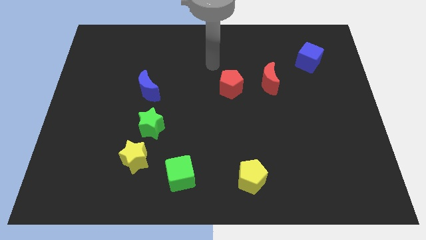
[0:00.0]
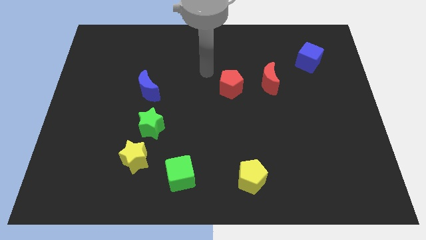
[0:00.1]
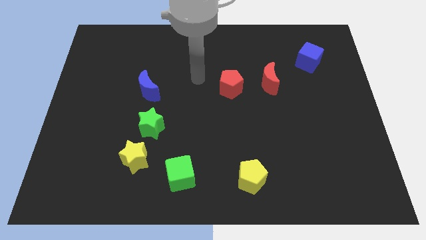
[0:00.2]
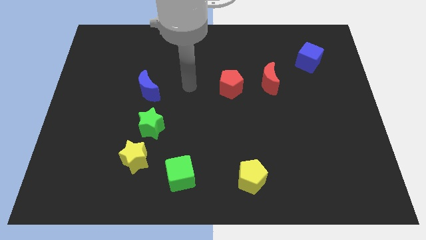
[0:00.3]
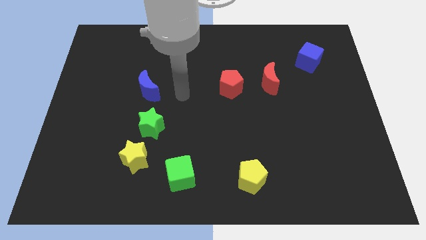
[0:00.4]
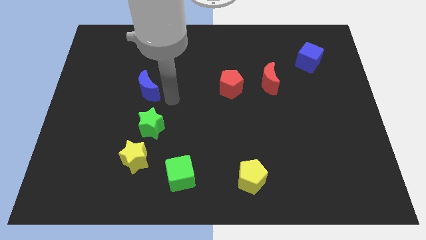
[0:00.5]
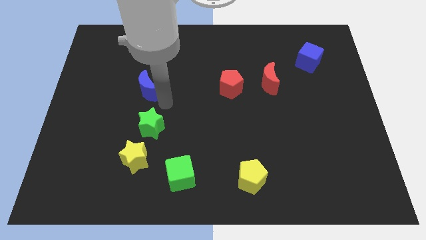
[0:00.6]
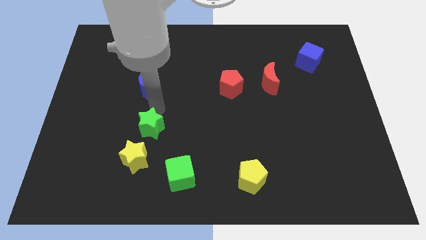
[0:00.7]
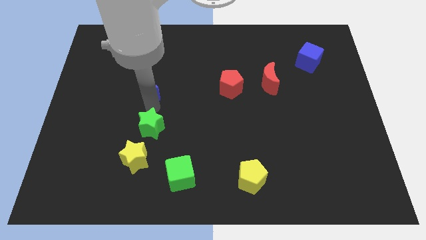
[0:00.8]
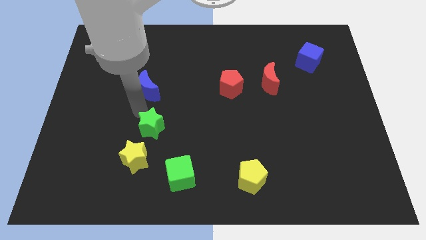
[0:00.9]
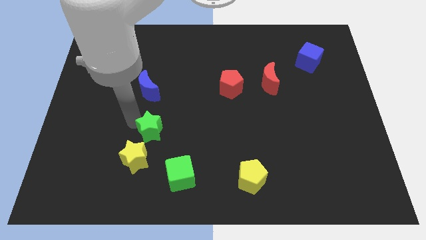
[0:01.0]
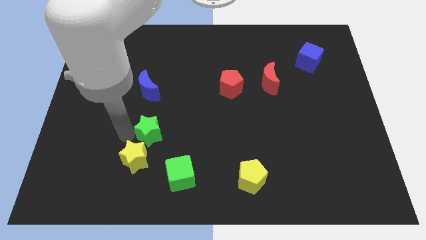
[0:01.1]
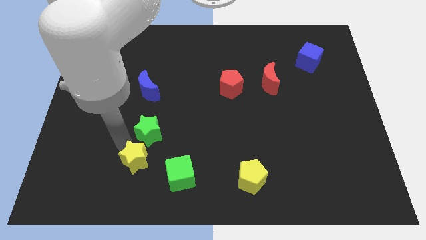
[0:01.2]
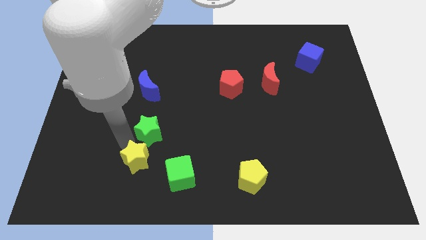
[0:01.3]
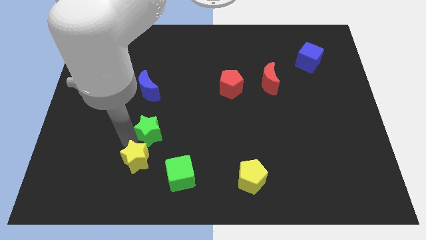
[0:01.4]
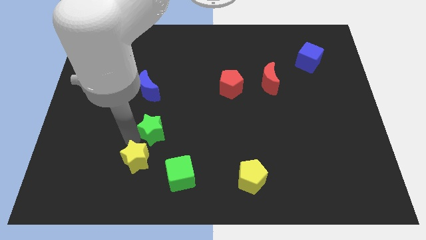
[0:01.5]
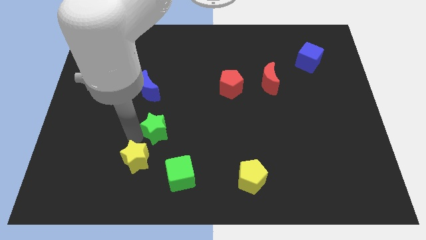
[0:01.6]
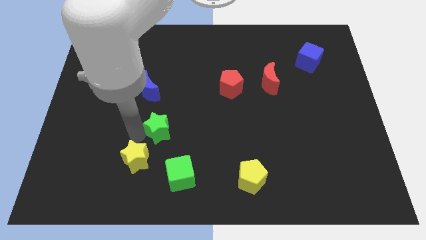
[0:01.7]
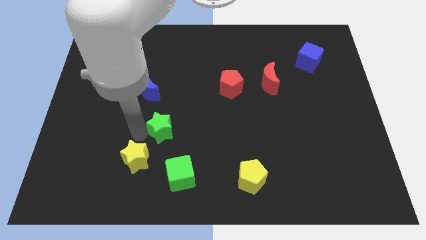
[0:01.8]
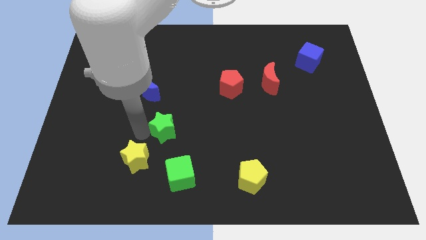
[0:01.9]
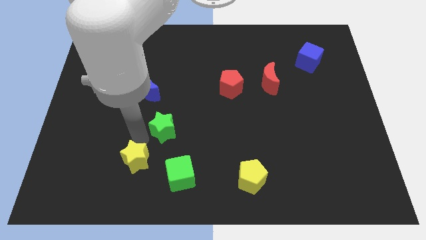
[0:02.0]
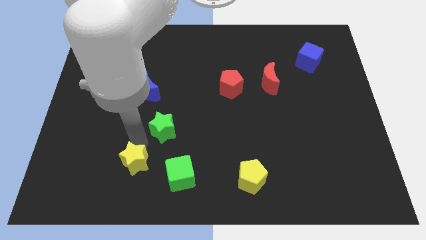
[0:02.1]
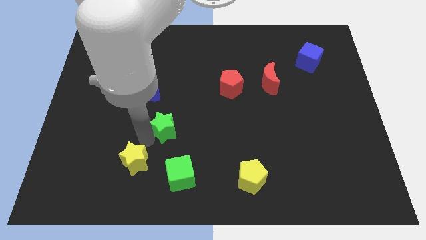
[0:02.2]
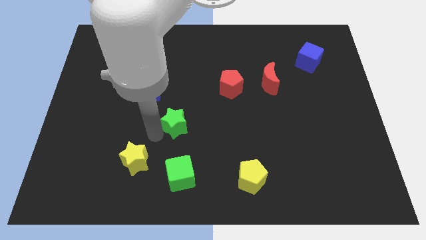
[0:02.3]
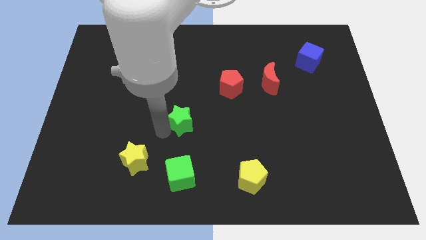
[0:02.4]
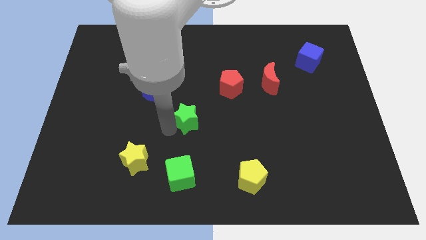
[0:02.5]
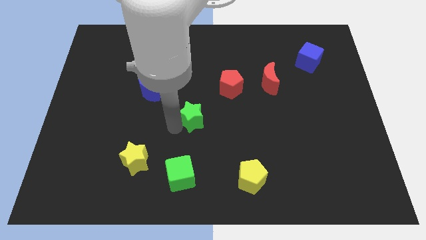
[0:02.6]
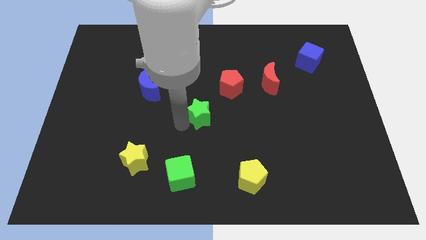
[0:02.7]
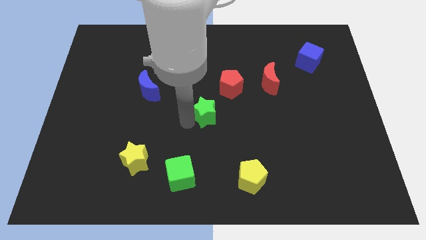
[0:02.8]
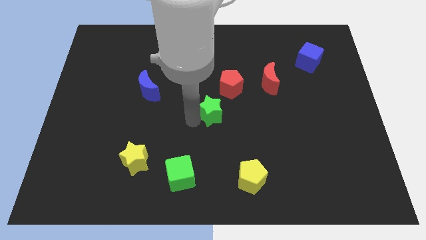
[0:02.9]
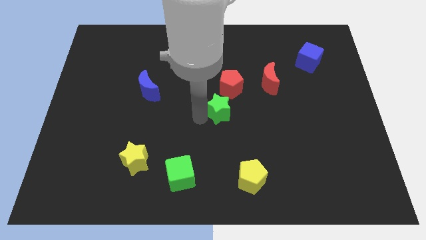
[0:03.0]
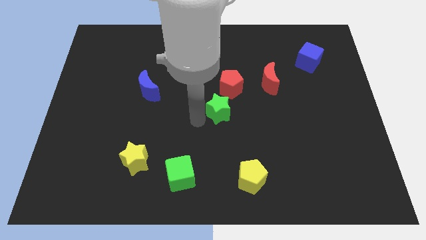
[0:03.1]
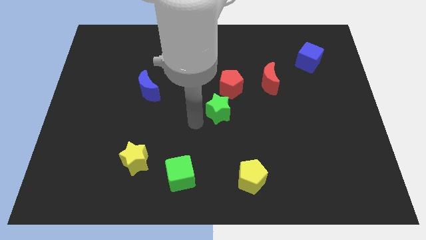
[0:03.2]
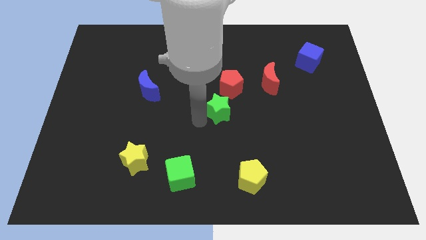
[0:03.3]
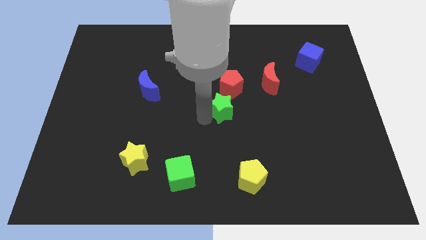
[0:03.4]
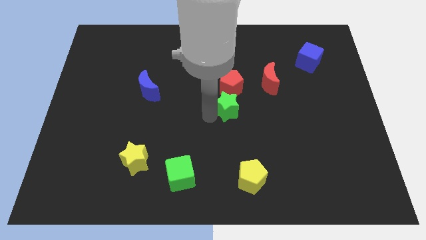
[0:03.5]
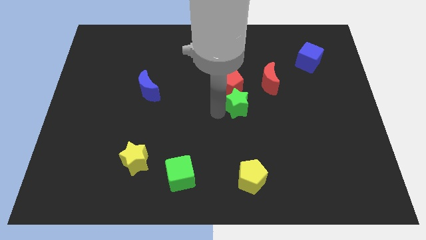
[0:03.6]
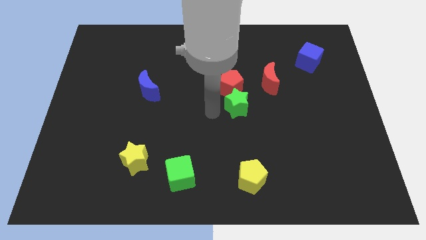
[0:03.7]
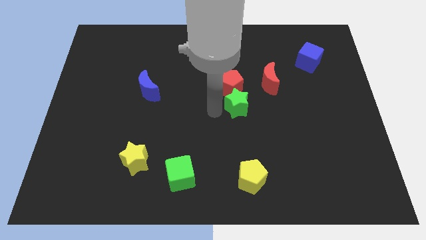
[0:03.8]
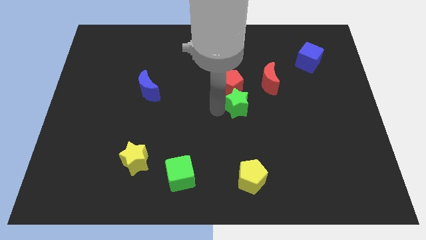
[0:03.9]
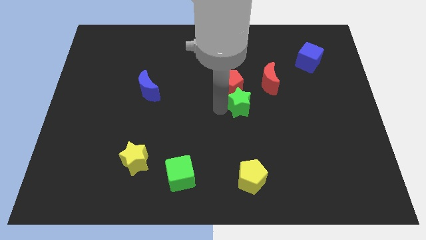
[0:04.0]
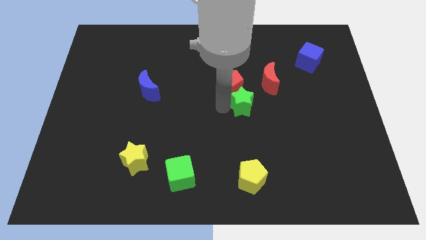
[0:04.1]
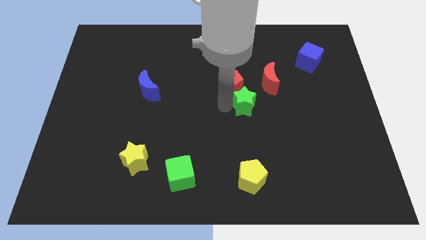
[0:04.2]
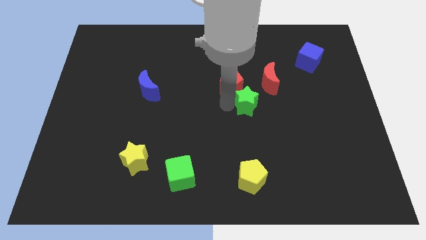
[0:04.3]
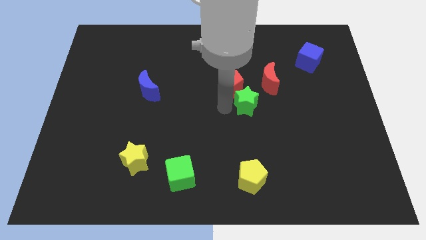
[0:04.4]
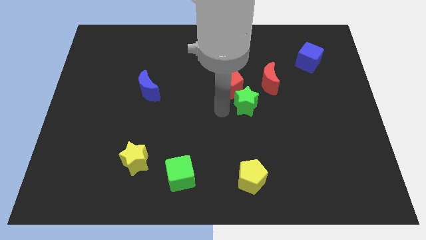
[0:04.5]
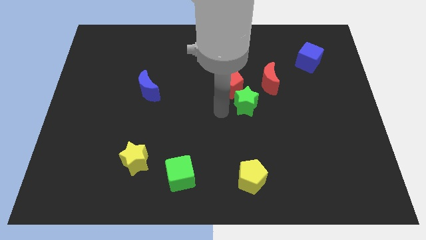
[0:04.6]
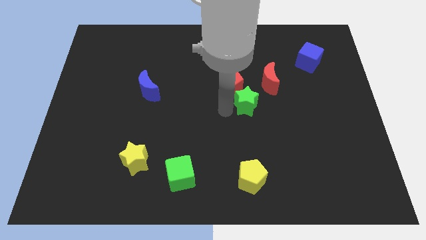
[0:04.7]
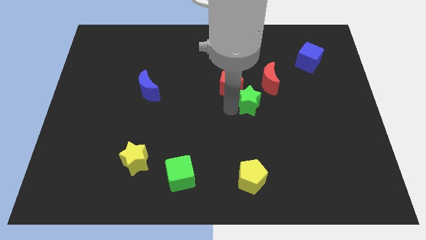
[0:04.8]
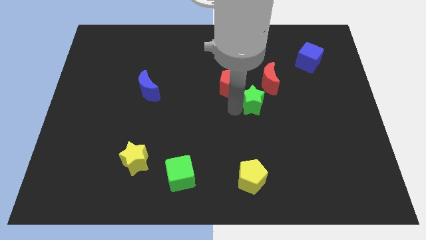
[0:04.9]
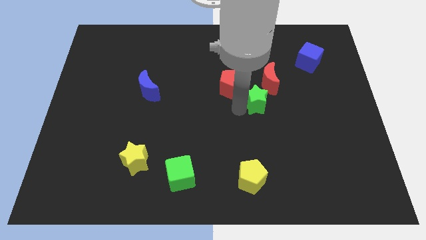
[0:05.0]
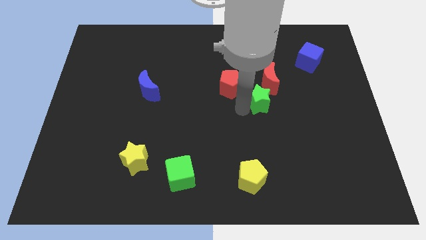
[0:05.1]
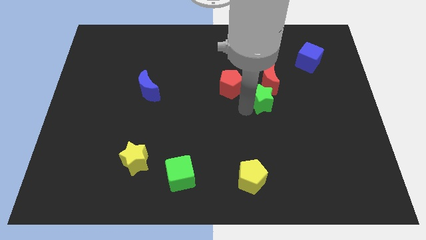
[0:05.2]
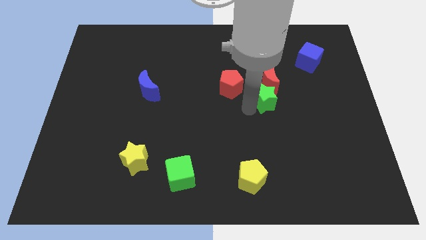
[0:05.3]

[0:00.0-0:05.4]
push the green star to the red moon

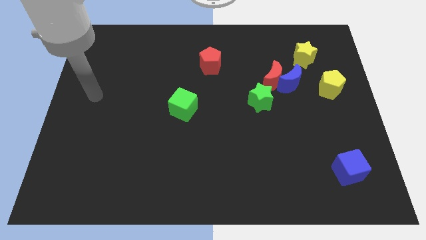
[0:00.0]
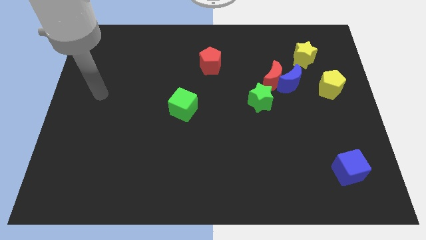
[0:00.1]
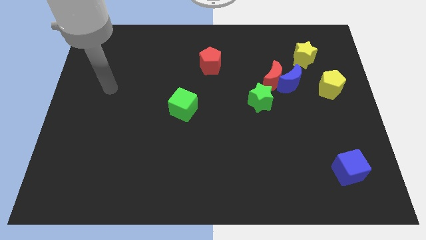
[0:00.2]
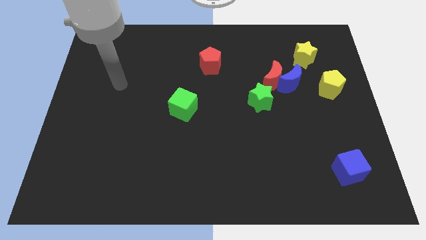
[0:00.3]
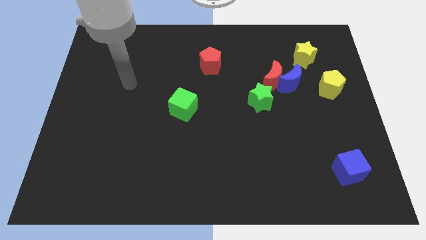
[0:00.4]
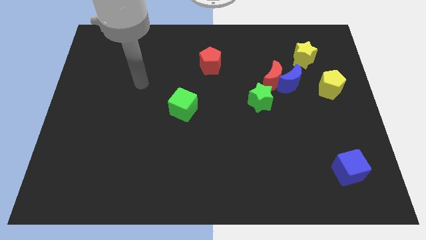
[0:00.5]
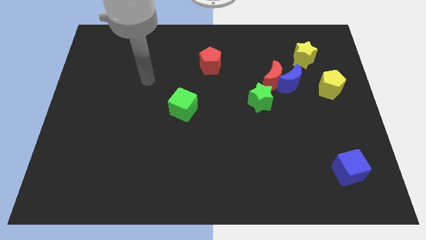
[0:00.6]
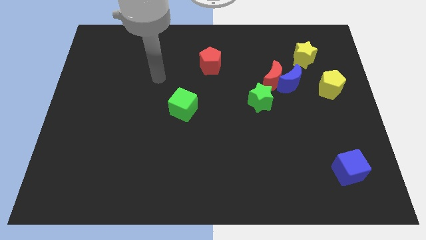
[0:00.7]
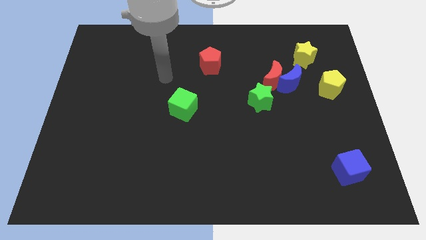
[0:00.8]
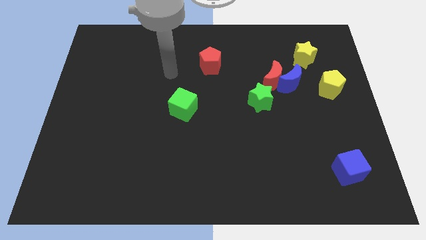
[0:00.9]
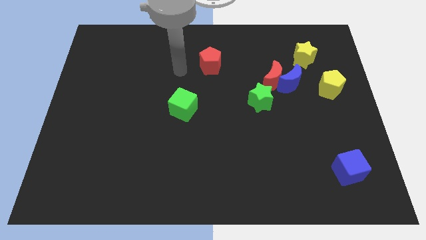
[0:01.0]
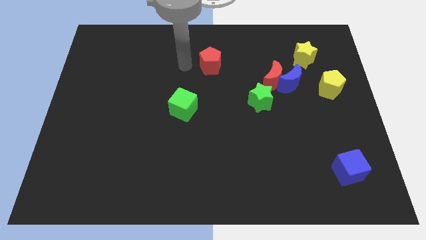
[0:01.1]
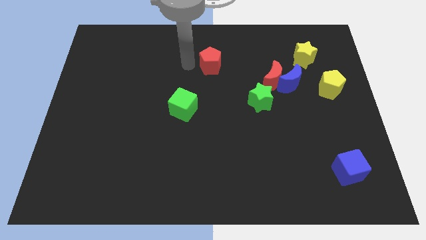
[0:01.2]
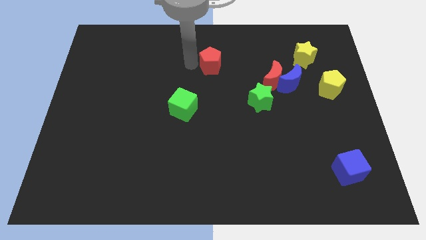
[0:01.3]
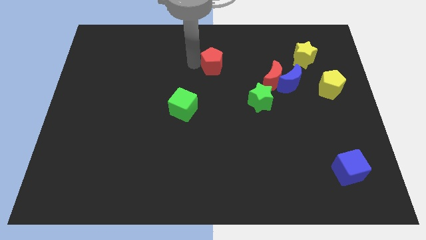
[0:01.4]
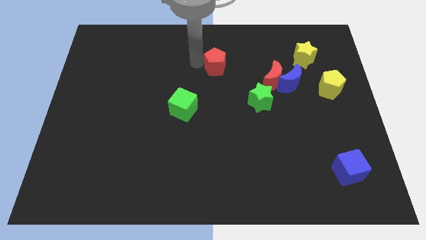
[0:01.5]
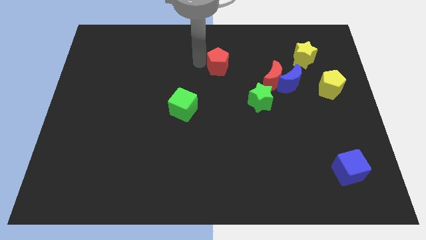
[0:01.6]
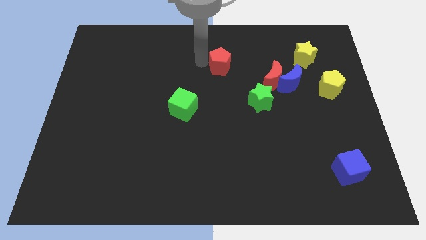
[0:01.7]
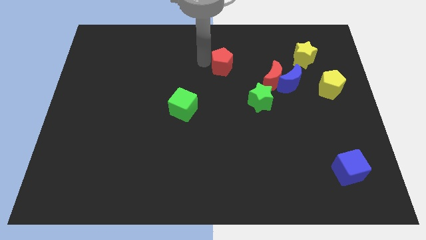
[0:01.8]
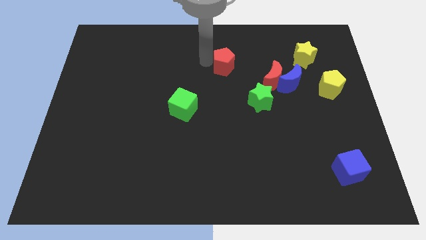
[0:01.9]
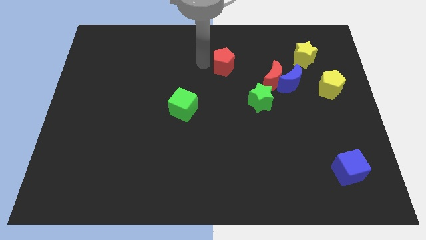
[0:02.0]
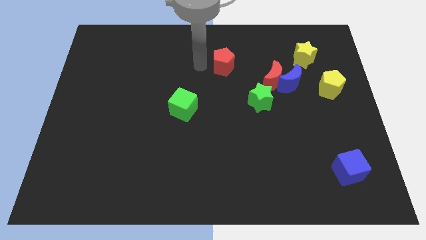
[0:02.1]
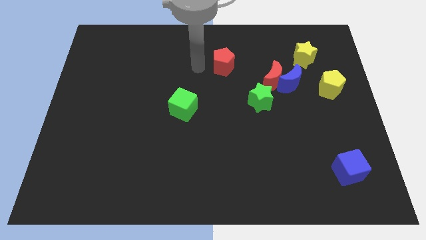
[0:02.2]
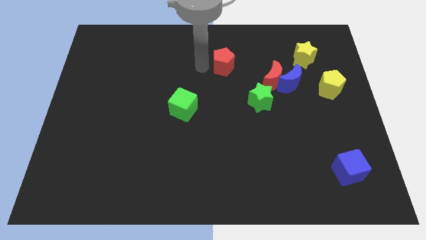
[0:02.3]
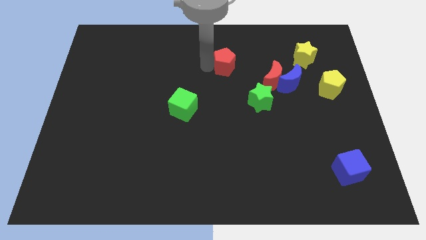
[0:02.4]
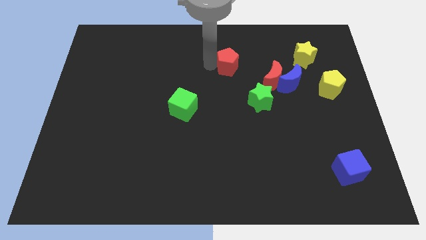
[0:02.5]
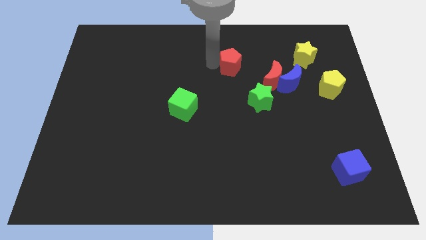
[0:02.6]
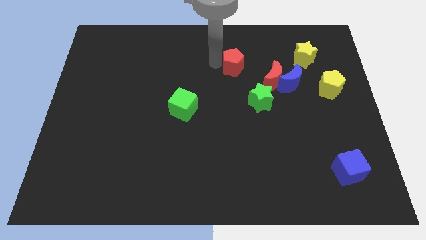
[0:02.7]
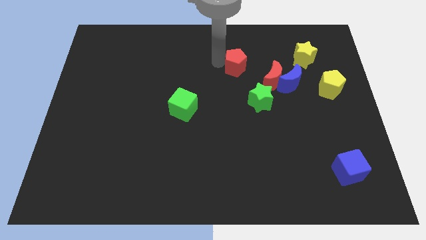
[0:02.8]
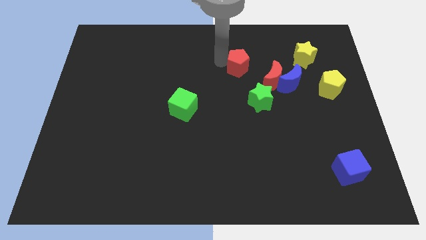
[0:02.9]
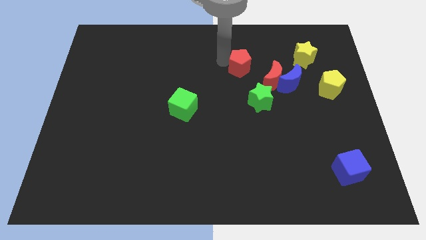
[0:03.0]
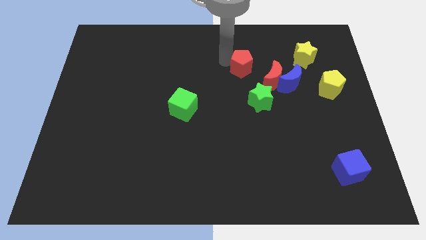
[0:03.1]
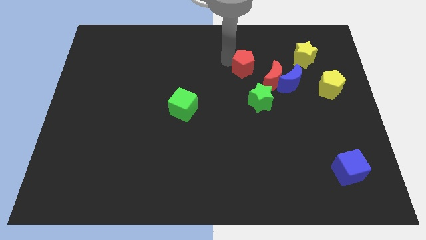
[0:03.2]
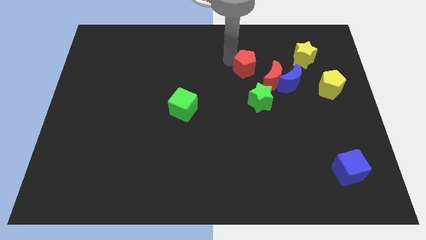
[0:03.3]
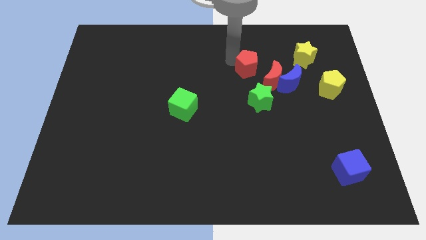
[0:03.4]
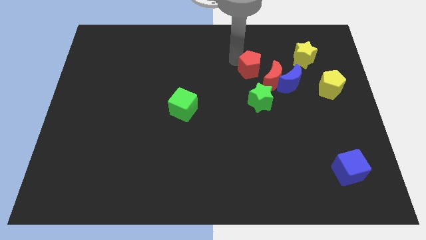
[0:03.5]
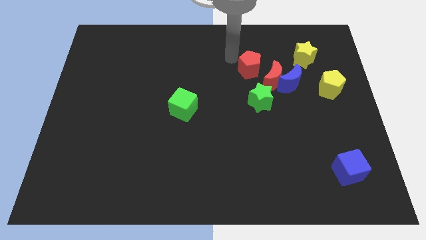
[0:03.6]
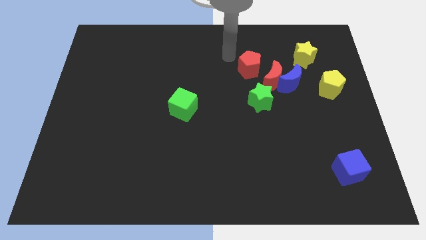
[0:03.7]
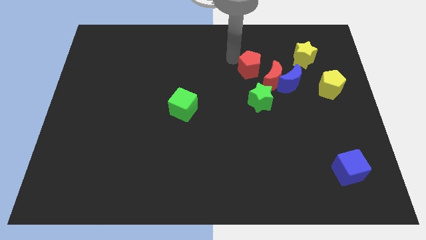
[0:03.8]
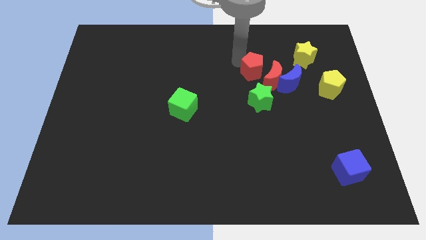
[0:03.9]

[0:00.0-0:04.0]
push the red pentagon close to the red moon
